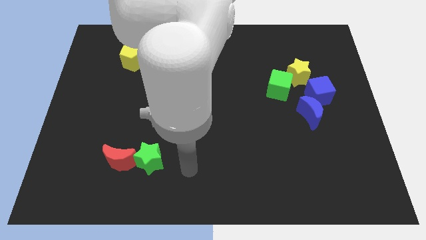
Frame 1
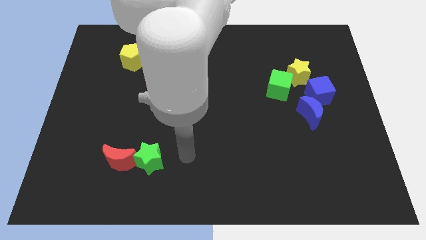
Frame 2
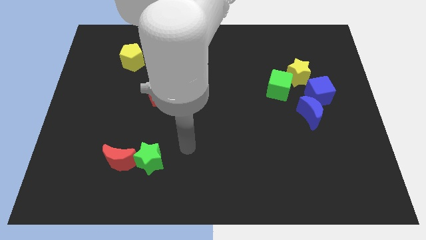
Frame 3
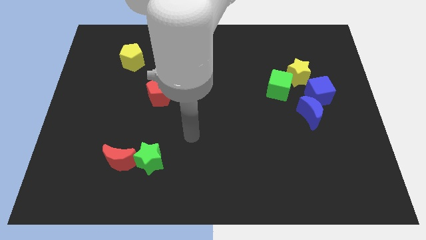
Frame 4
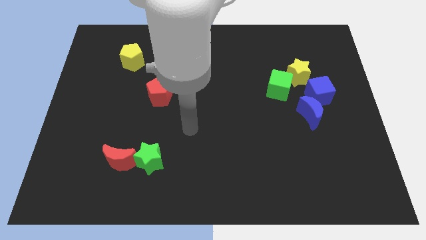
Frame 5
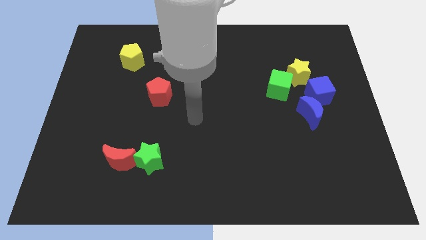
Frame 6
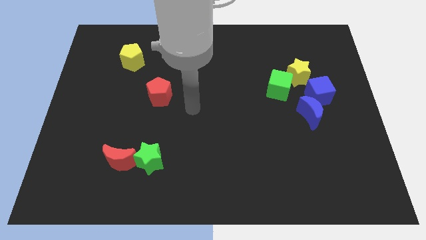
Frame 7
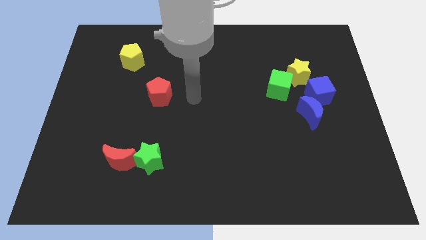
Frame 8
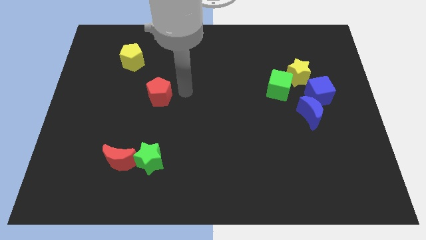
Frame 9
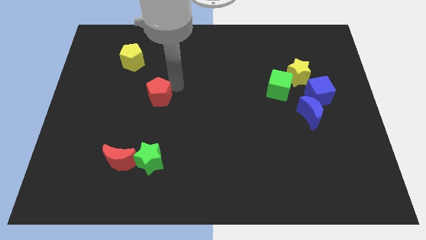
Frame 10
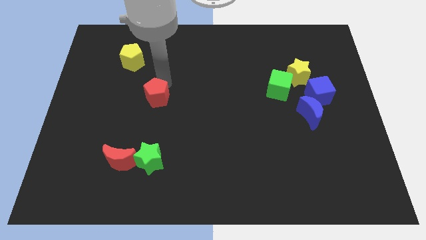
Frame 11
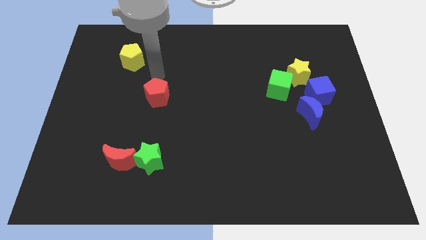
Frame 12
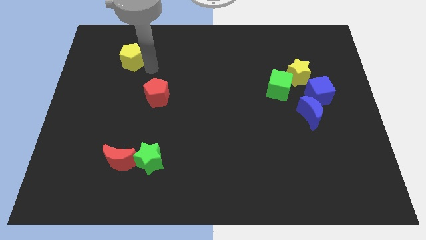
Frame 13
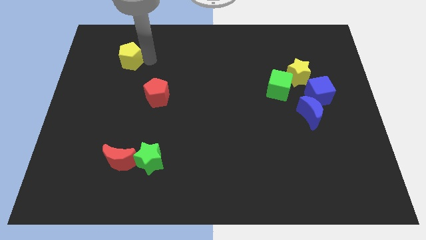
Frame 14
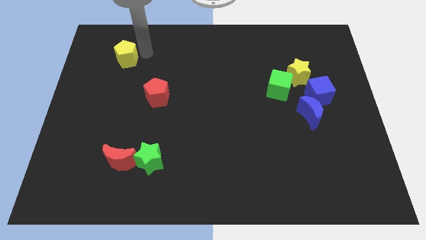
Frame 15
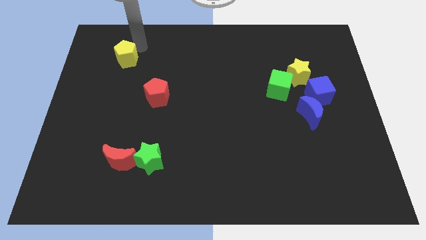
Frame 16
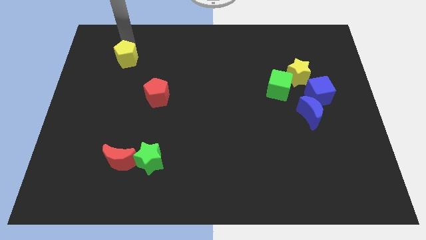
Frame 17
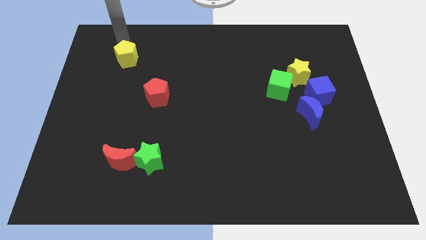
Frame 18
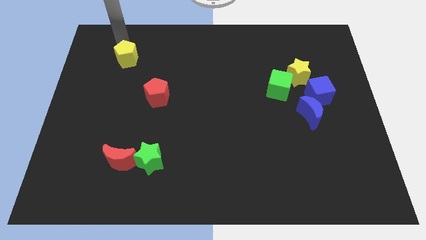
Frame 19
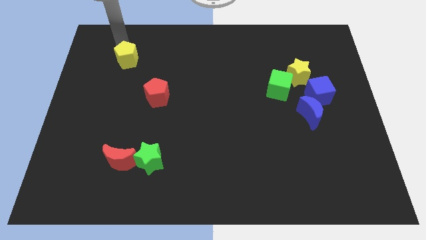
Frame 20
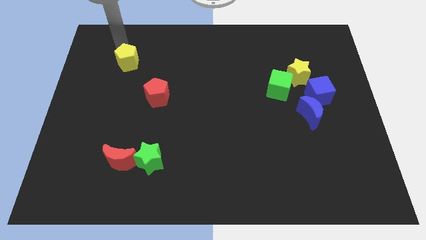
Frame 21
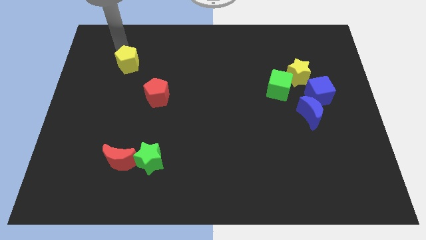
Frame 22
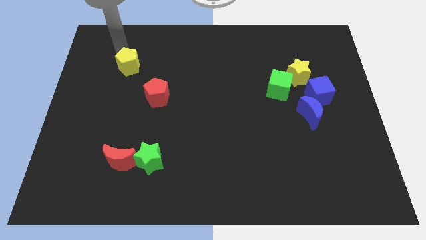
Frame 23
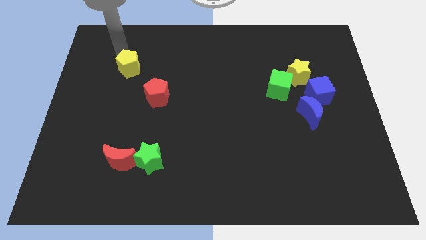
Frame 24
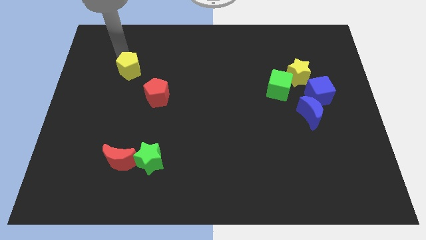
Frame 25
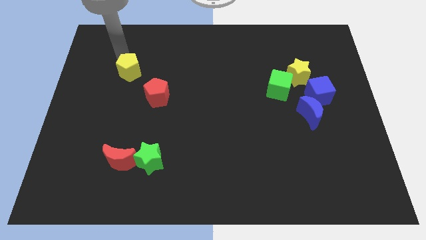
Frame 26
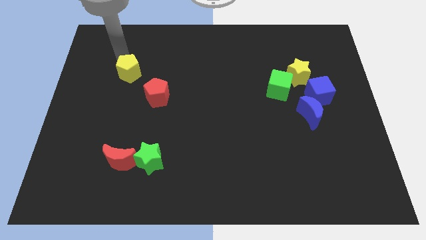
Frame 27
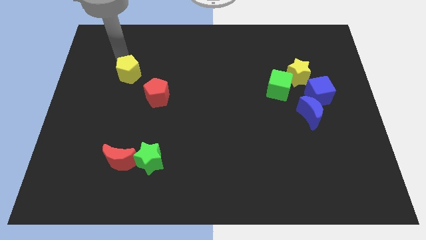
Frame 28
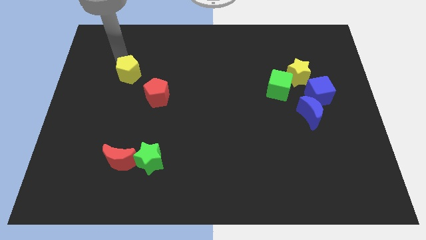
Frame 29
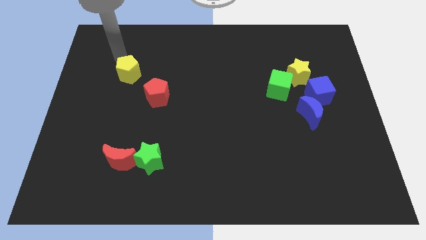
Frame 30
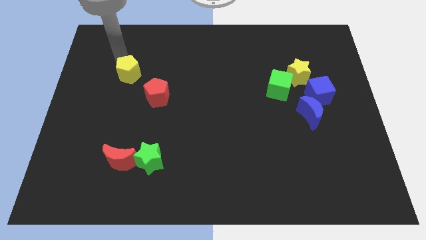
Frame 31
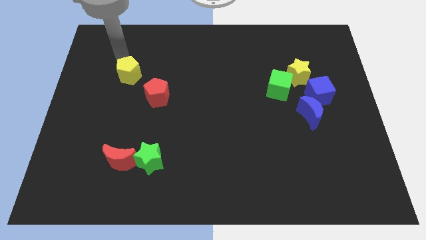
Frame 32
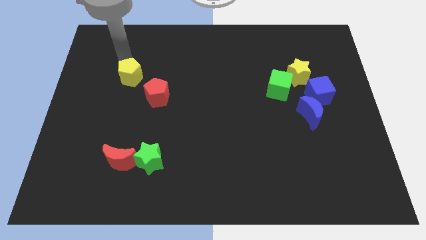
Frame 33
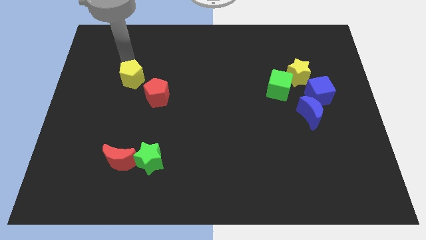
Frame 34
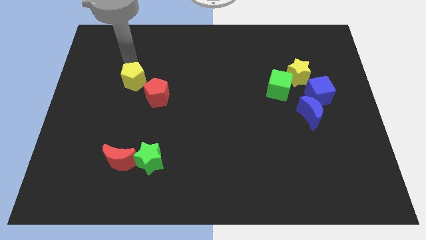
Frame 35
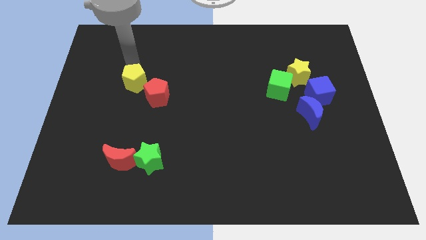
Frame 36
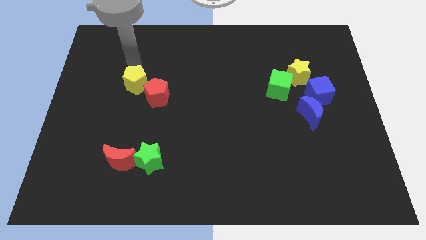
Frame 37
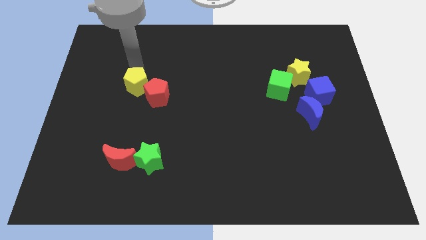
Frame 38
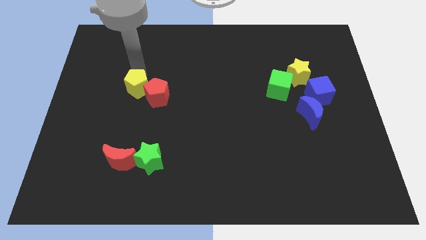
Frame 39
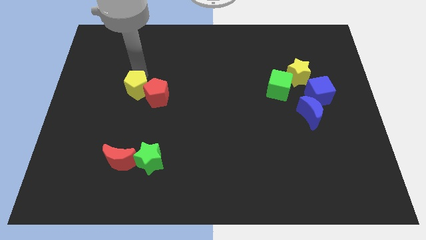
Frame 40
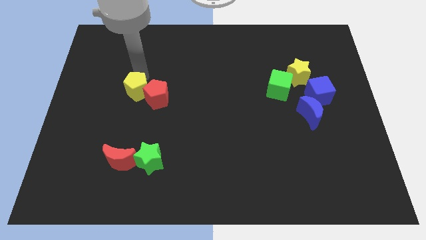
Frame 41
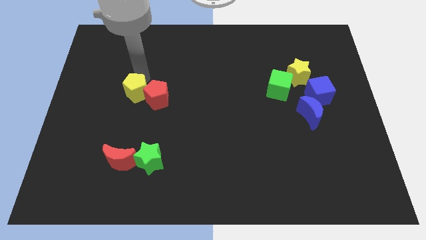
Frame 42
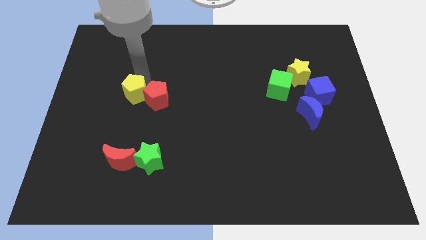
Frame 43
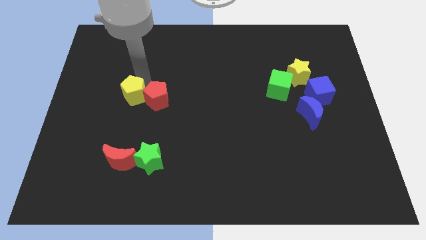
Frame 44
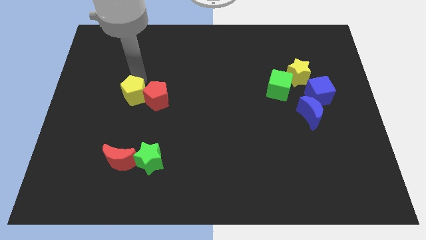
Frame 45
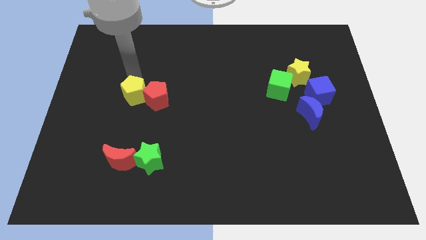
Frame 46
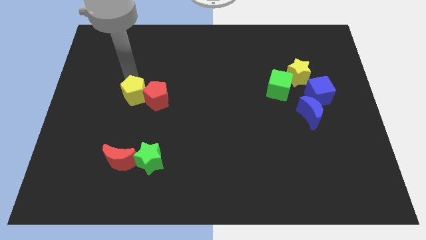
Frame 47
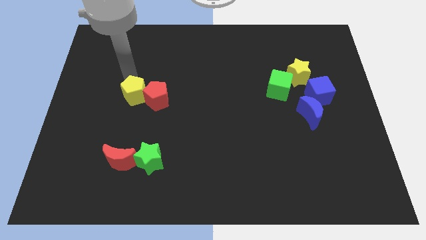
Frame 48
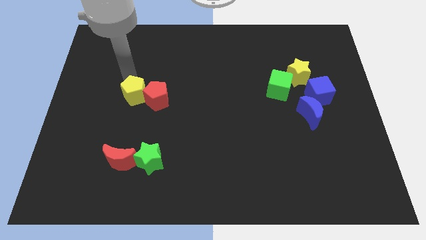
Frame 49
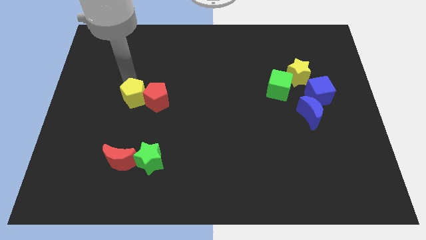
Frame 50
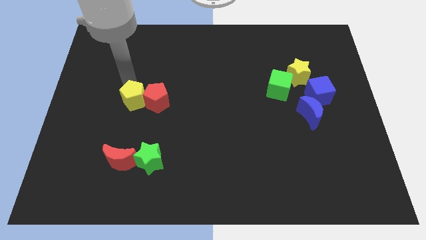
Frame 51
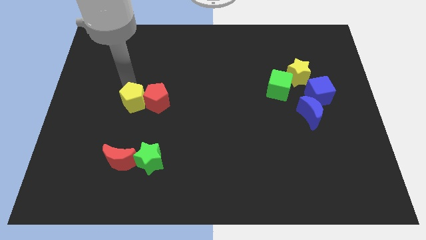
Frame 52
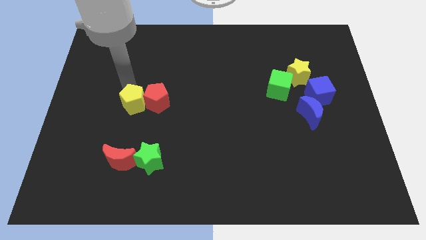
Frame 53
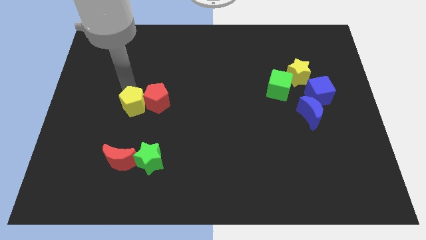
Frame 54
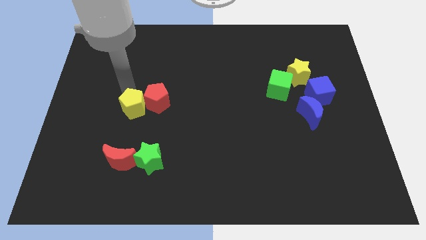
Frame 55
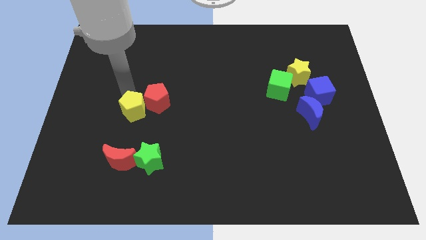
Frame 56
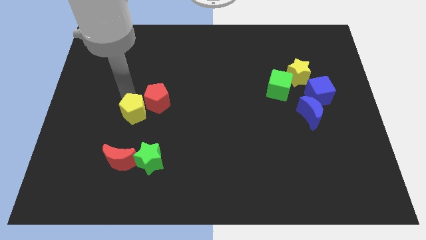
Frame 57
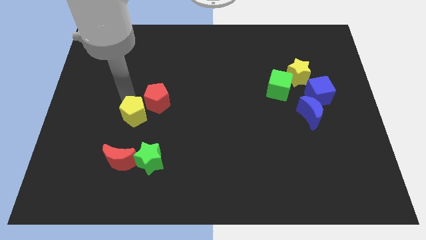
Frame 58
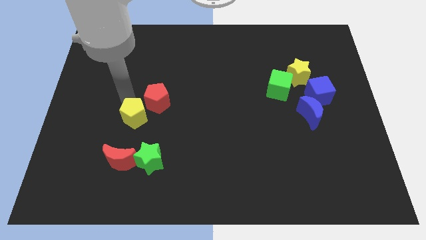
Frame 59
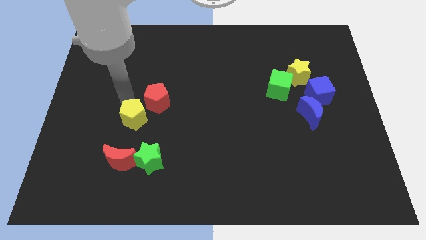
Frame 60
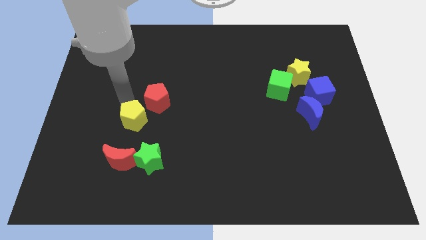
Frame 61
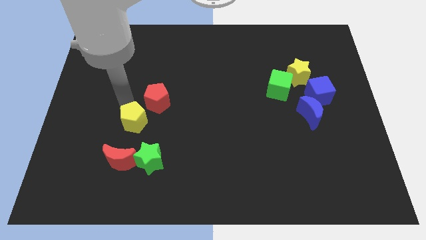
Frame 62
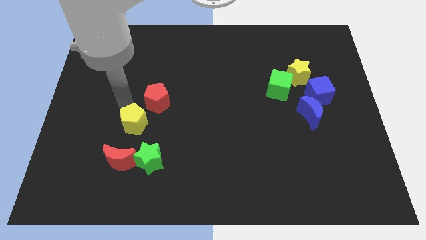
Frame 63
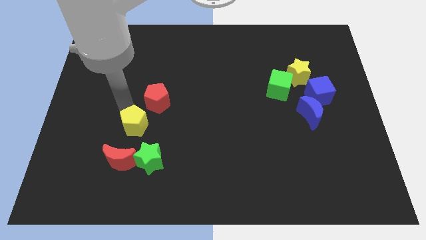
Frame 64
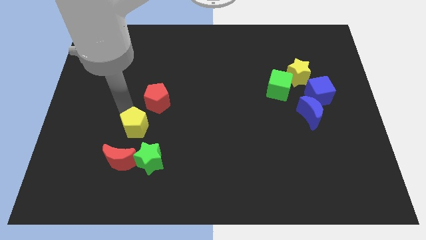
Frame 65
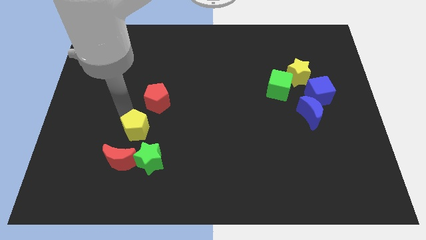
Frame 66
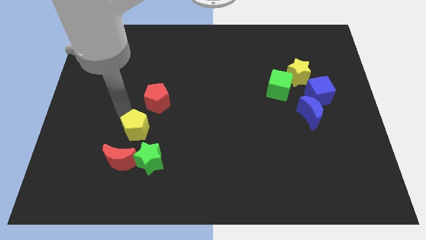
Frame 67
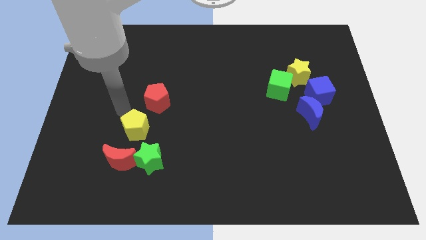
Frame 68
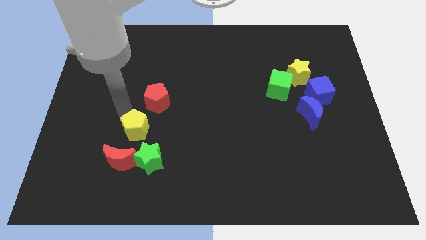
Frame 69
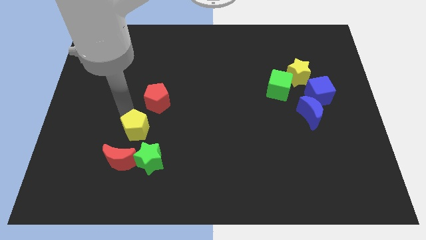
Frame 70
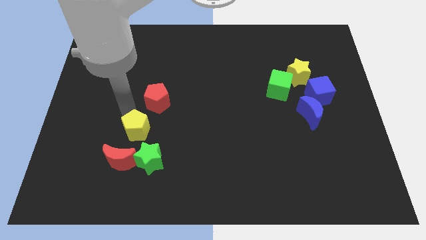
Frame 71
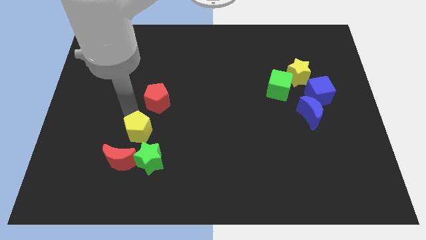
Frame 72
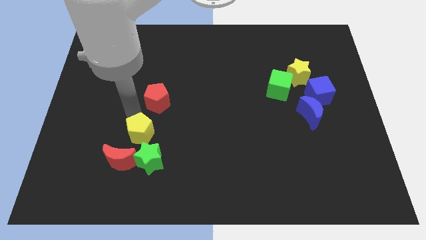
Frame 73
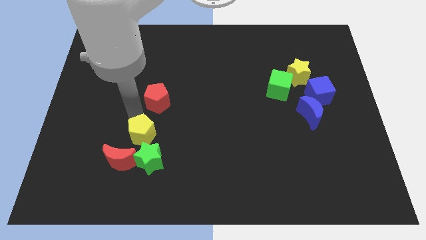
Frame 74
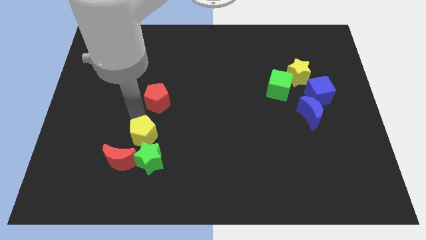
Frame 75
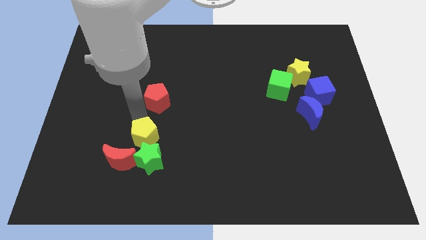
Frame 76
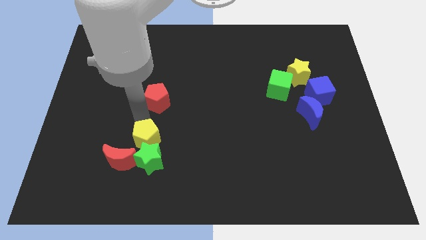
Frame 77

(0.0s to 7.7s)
slide the yellow pentagon next to the green star
